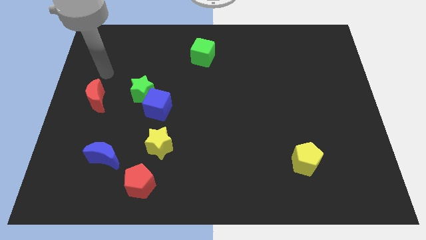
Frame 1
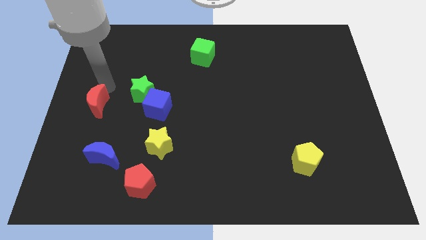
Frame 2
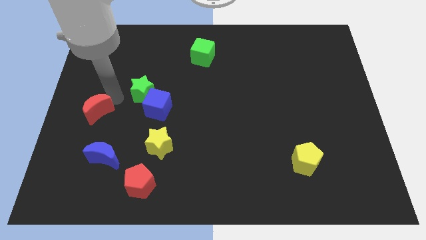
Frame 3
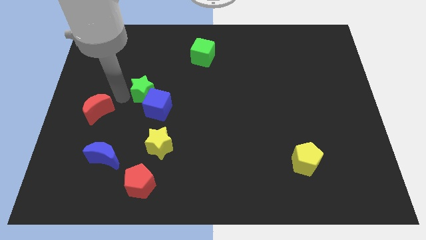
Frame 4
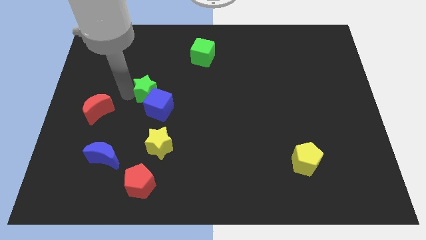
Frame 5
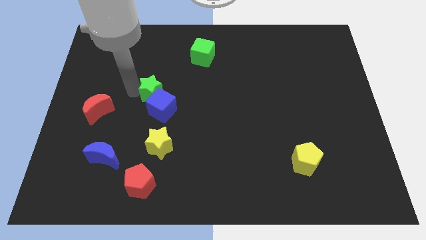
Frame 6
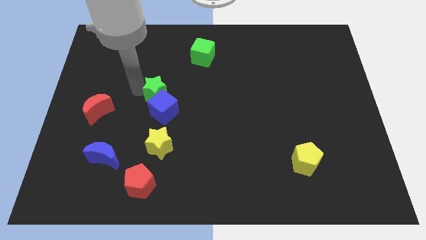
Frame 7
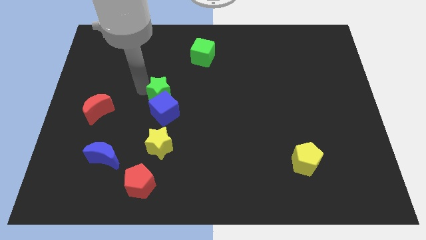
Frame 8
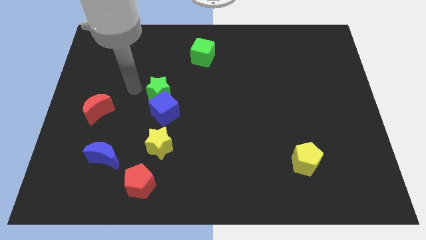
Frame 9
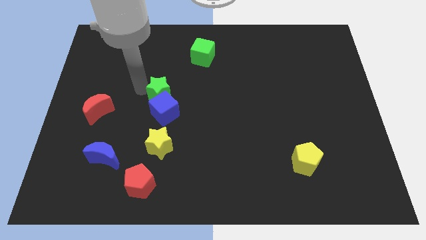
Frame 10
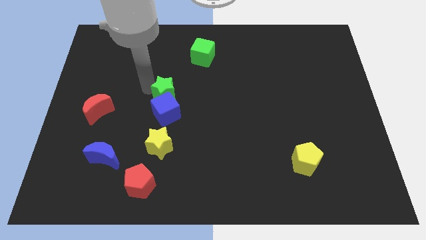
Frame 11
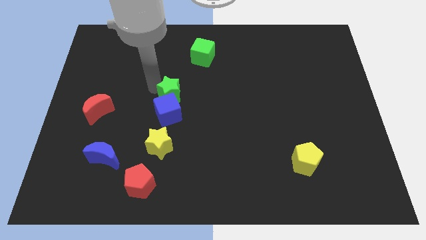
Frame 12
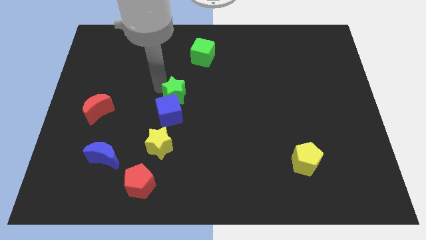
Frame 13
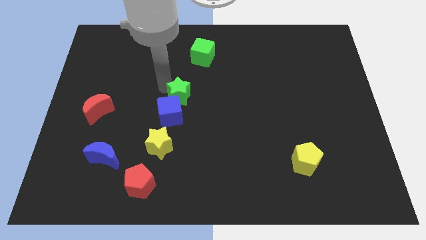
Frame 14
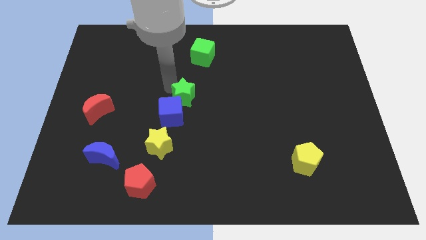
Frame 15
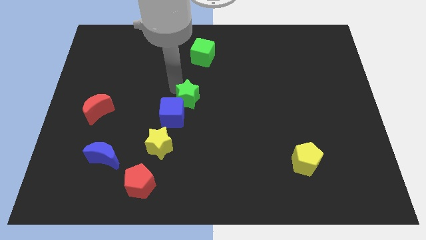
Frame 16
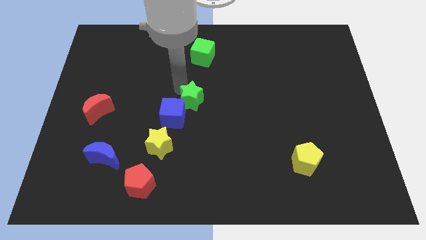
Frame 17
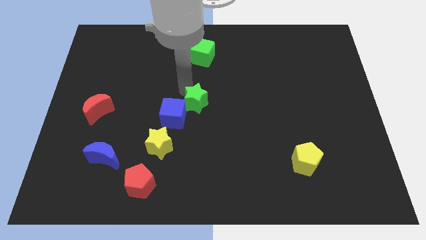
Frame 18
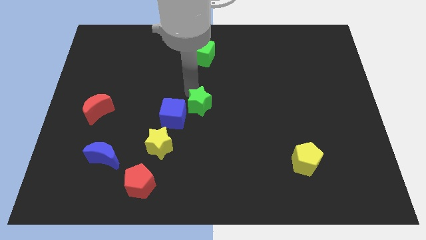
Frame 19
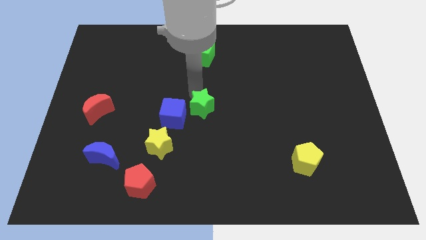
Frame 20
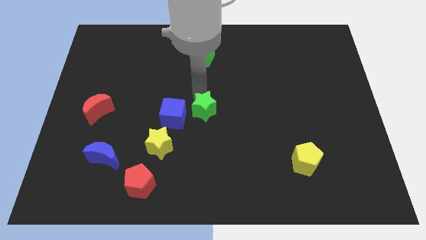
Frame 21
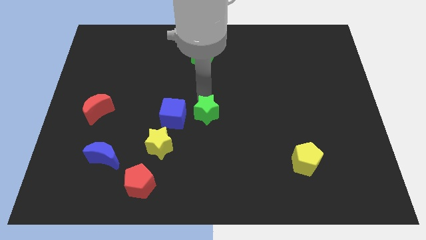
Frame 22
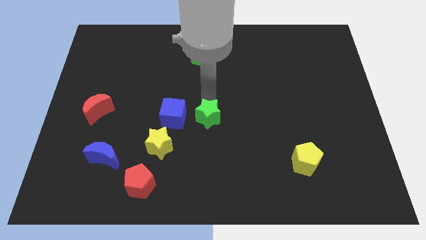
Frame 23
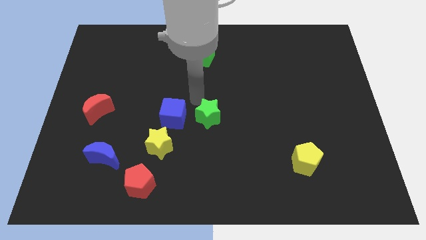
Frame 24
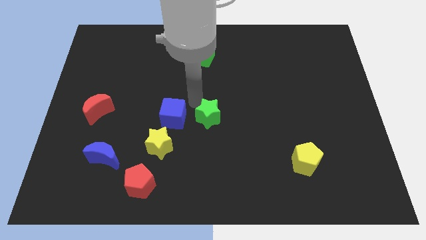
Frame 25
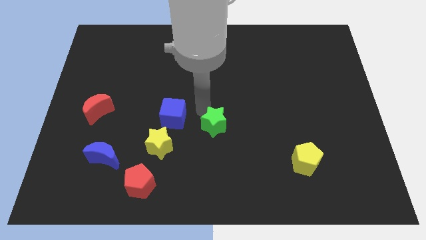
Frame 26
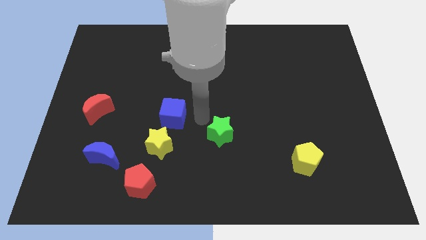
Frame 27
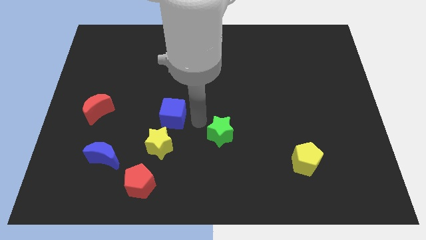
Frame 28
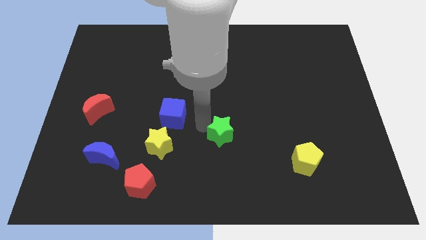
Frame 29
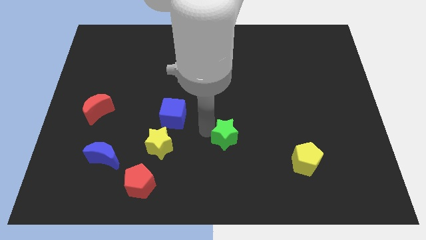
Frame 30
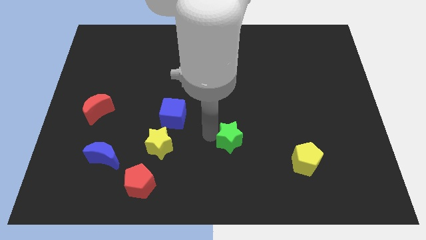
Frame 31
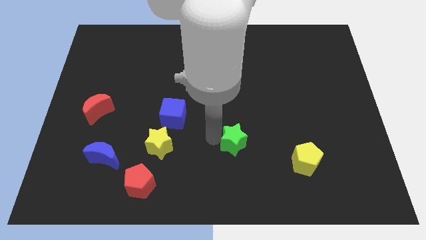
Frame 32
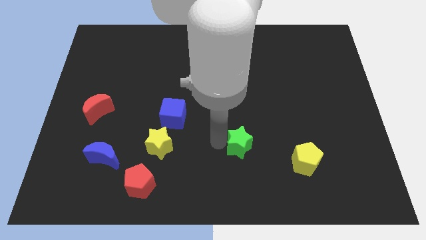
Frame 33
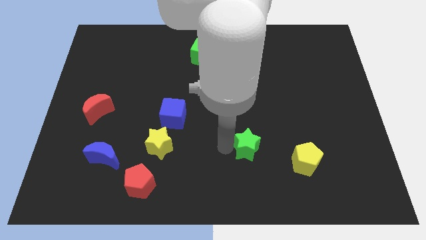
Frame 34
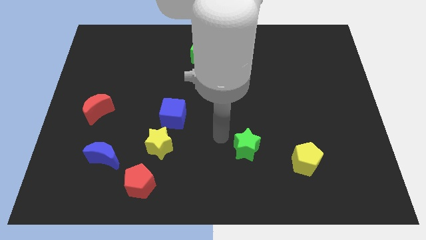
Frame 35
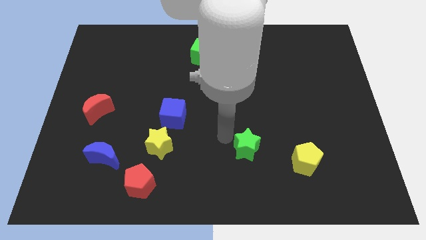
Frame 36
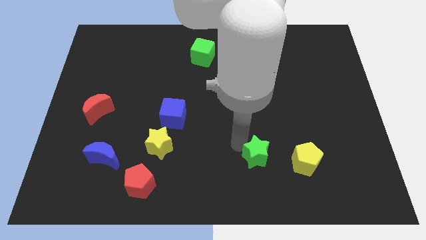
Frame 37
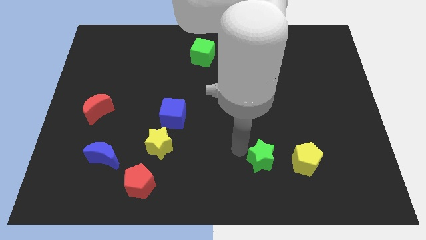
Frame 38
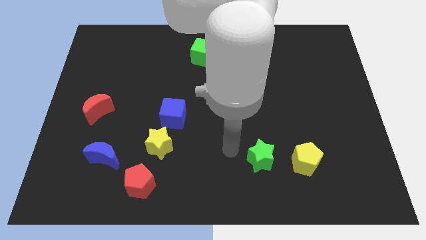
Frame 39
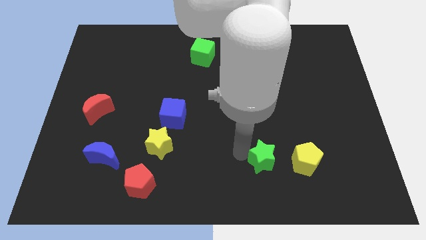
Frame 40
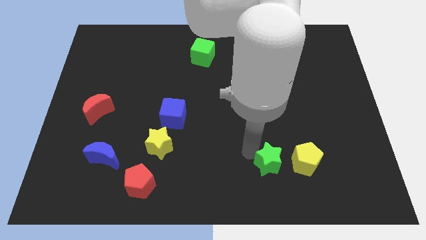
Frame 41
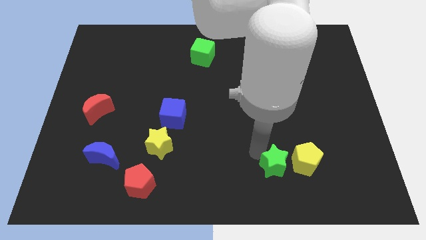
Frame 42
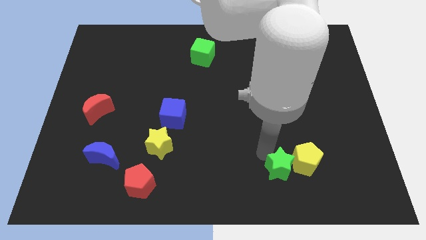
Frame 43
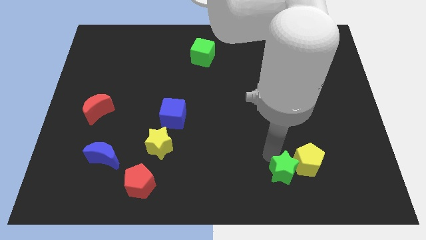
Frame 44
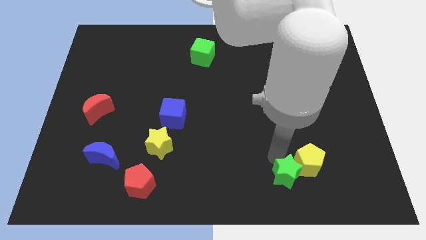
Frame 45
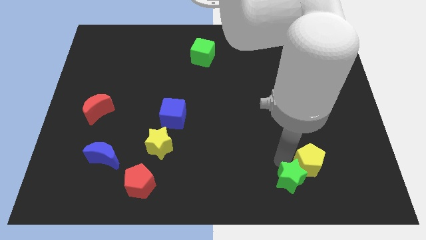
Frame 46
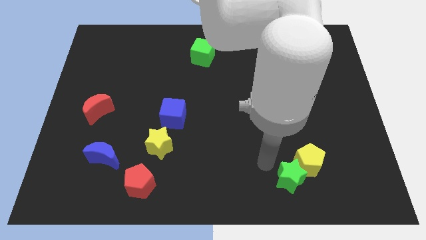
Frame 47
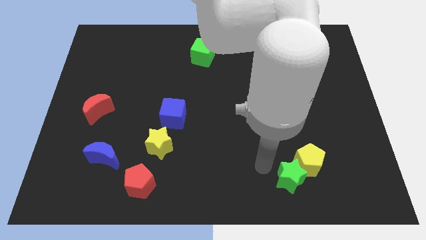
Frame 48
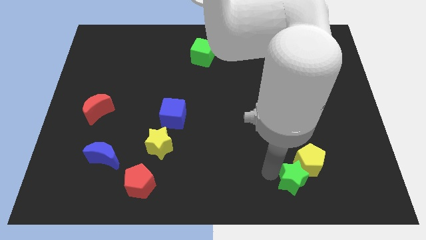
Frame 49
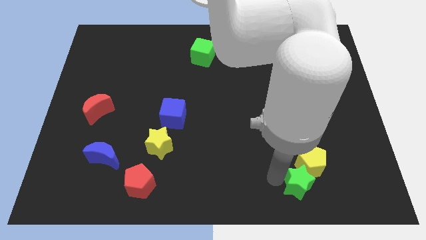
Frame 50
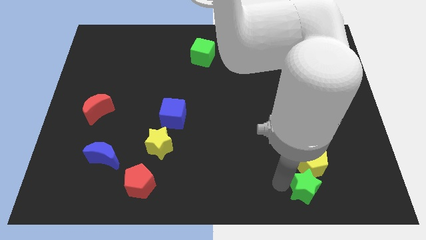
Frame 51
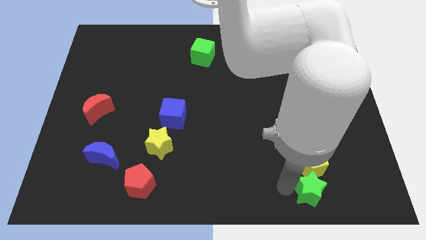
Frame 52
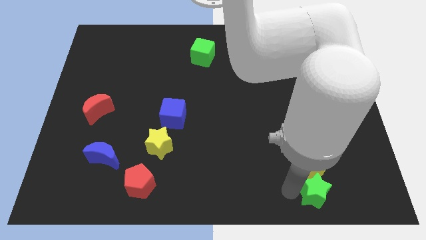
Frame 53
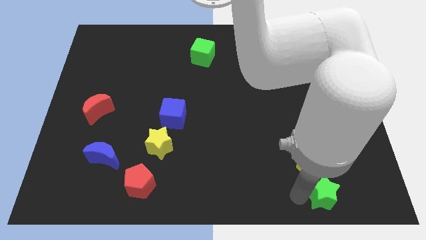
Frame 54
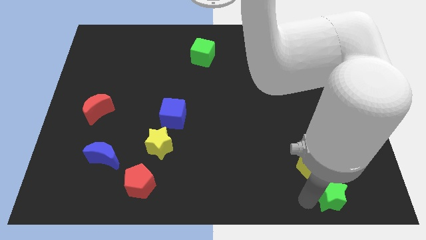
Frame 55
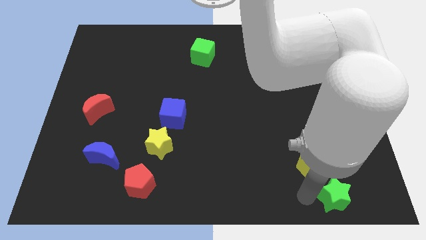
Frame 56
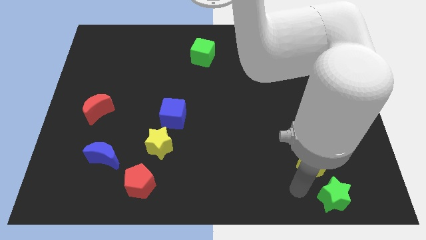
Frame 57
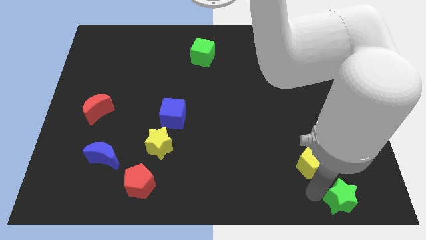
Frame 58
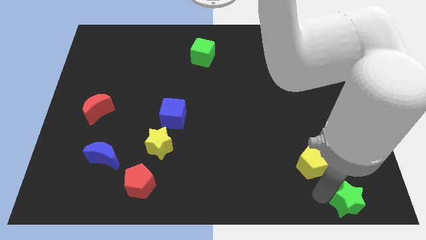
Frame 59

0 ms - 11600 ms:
push the green star to the bottom right of the board

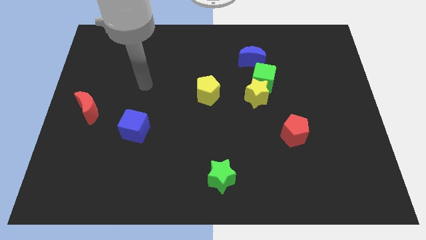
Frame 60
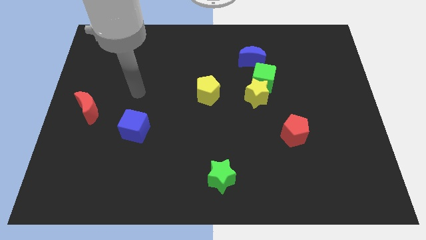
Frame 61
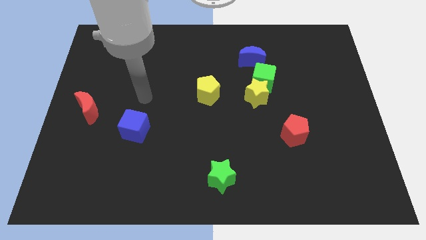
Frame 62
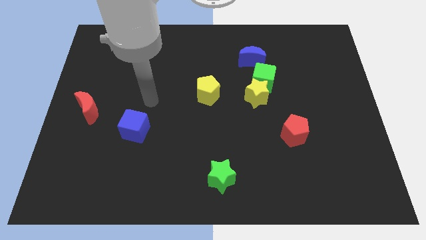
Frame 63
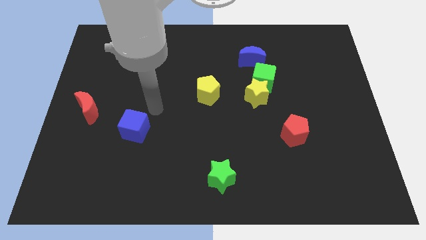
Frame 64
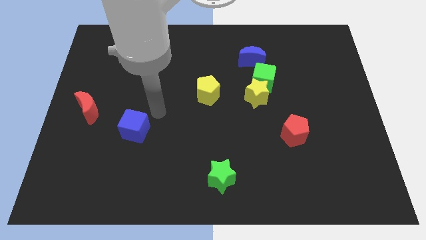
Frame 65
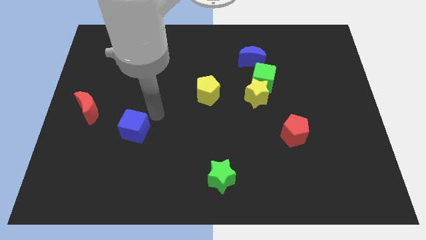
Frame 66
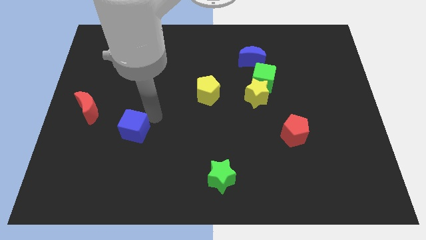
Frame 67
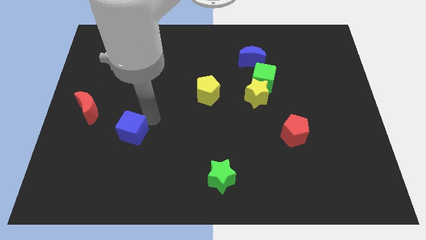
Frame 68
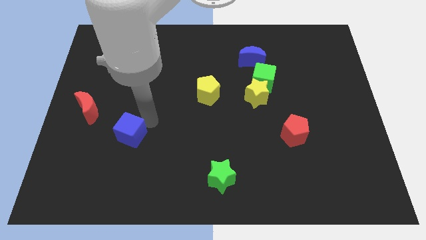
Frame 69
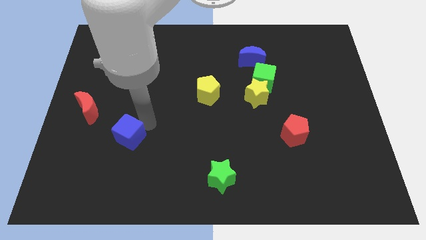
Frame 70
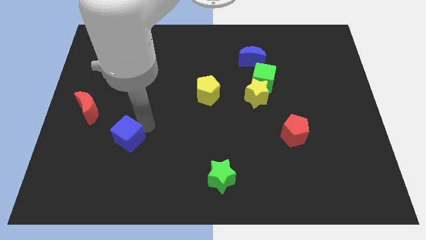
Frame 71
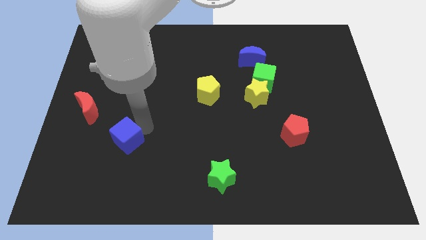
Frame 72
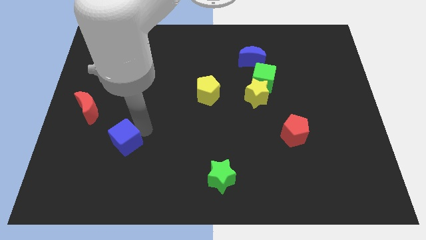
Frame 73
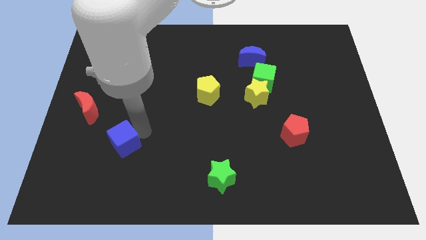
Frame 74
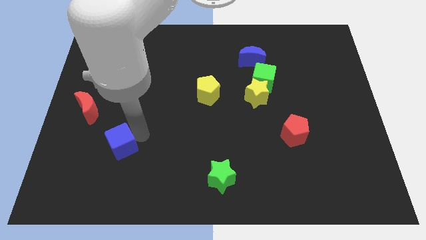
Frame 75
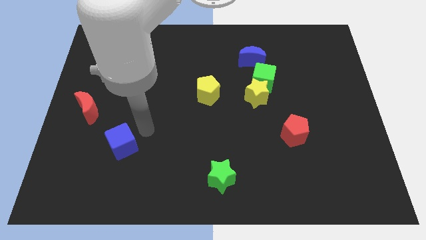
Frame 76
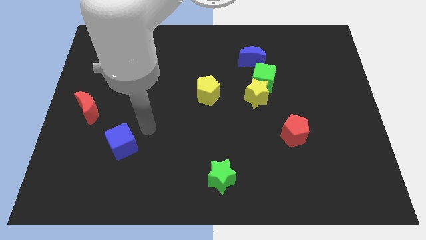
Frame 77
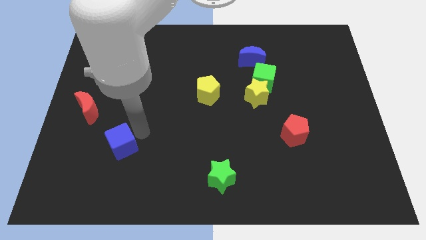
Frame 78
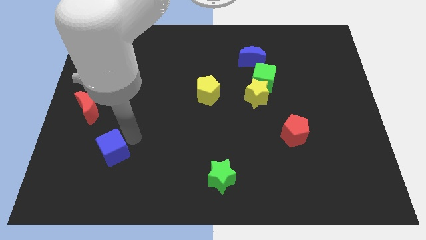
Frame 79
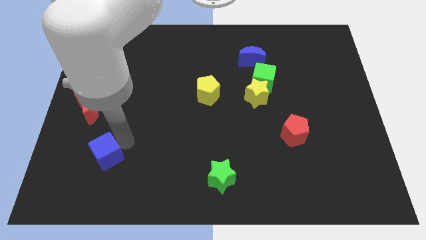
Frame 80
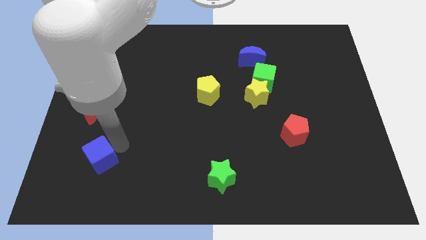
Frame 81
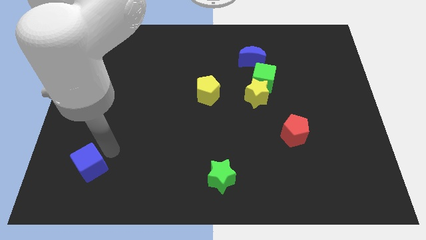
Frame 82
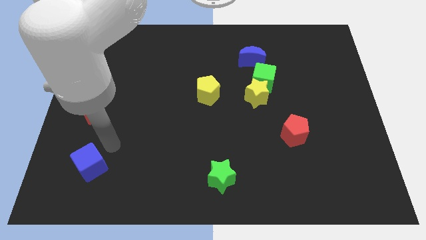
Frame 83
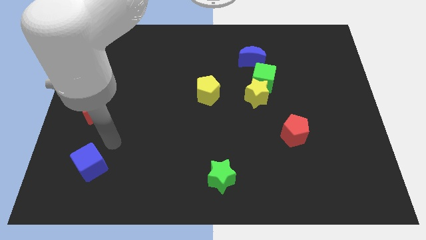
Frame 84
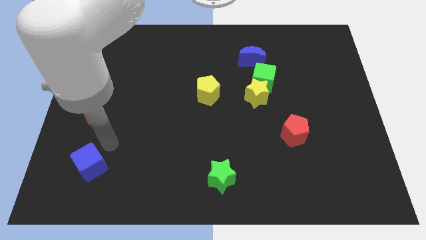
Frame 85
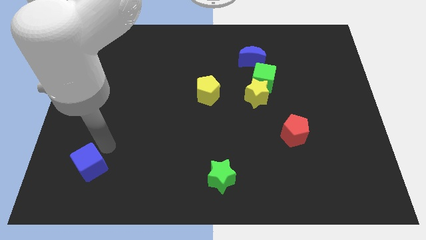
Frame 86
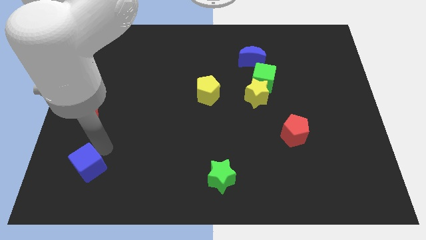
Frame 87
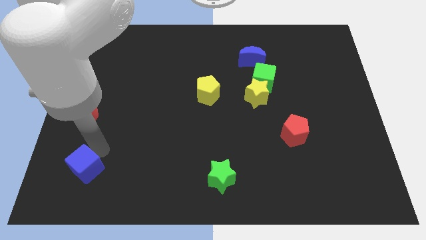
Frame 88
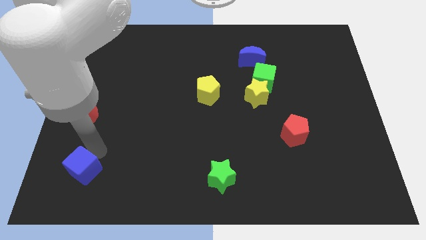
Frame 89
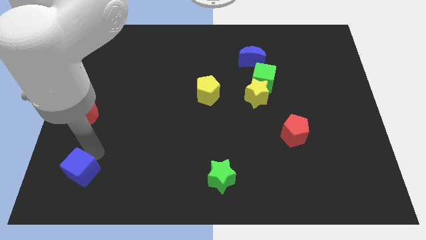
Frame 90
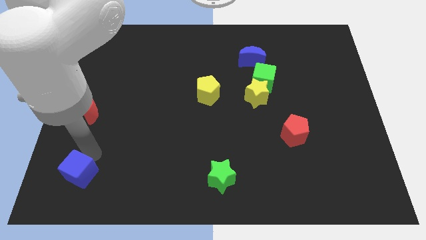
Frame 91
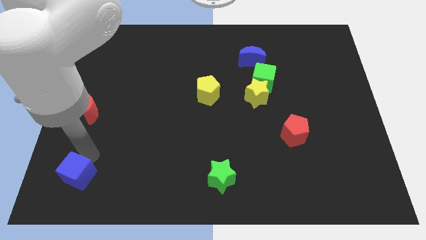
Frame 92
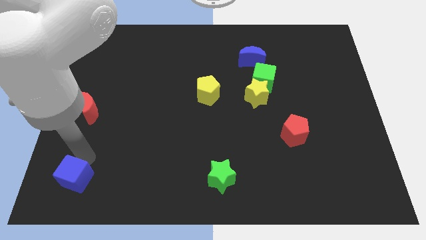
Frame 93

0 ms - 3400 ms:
put the blue cube to the lower left corner
